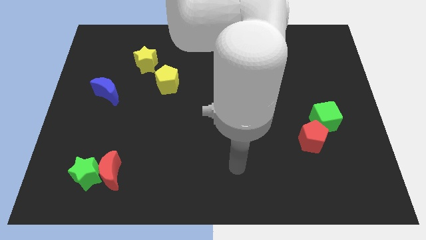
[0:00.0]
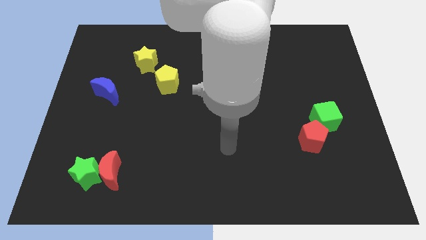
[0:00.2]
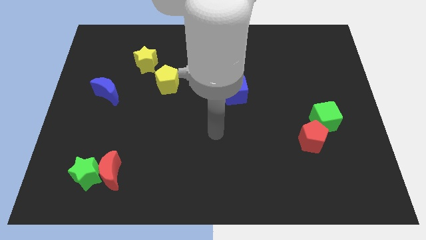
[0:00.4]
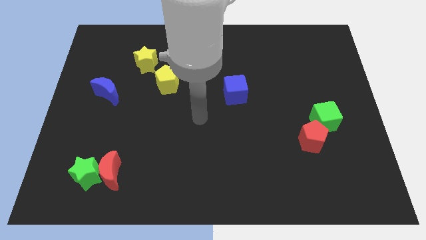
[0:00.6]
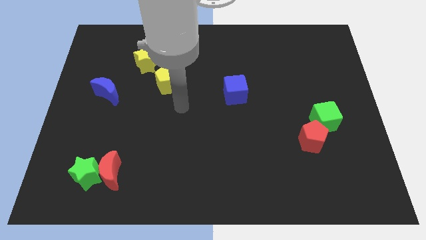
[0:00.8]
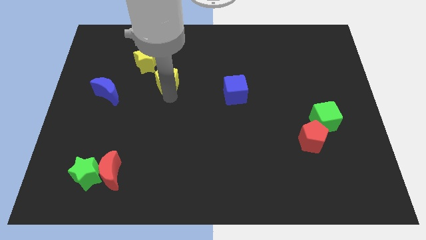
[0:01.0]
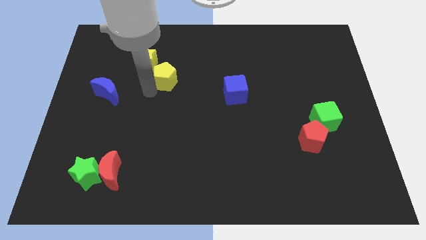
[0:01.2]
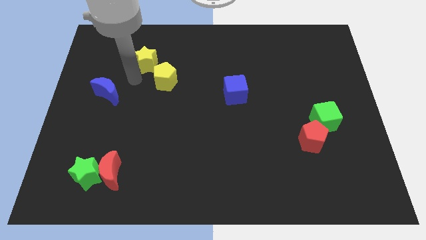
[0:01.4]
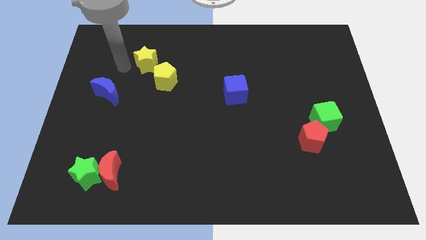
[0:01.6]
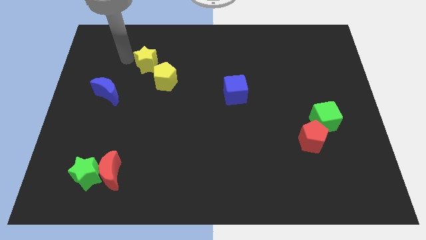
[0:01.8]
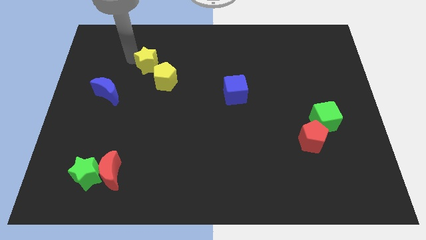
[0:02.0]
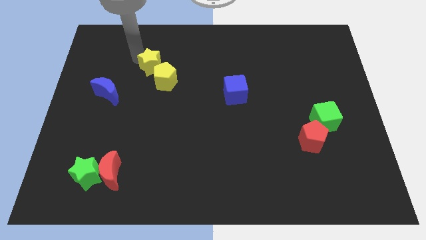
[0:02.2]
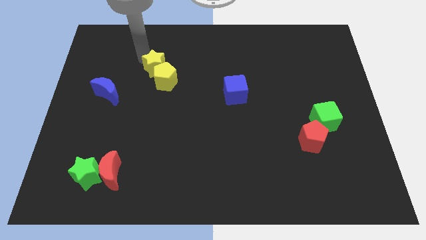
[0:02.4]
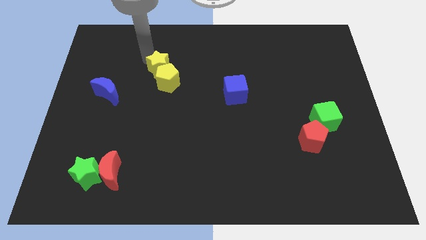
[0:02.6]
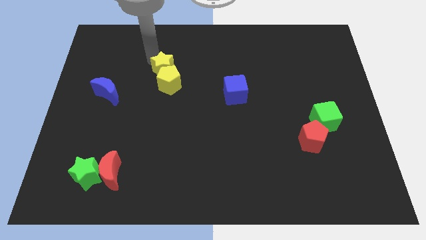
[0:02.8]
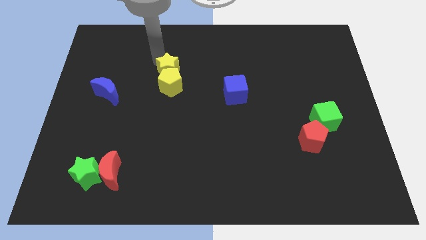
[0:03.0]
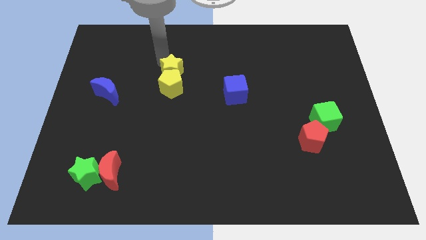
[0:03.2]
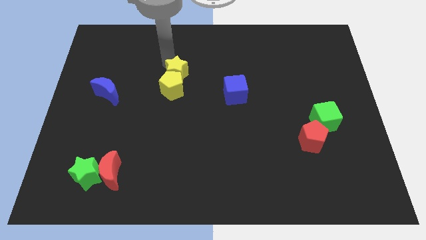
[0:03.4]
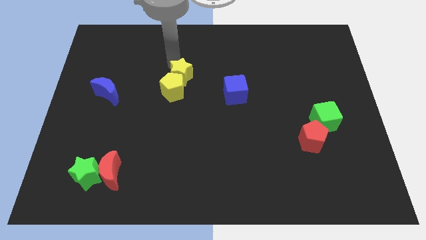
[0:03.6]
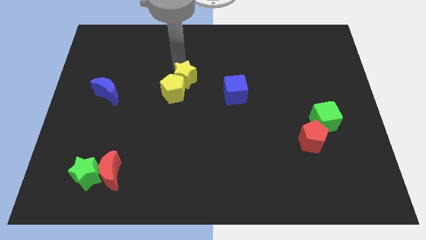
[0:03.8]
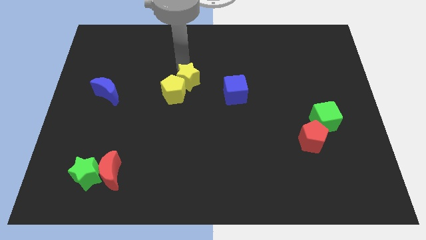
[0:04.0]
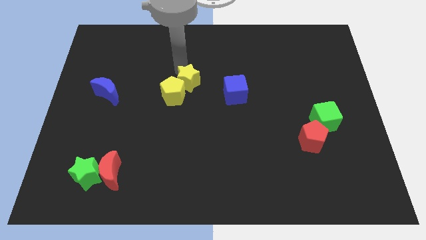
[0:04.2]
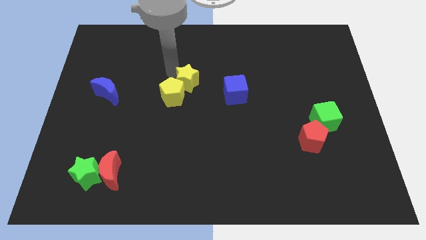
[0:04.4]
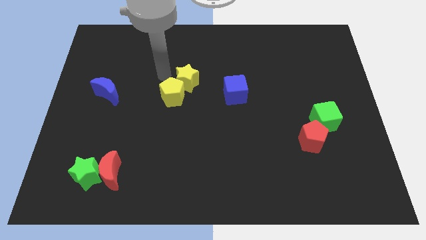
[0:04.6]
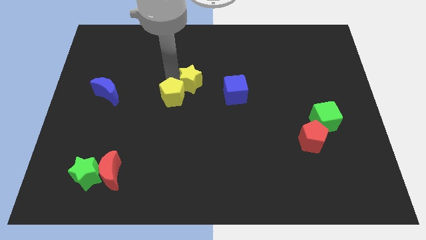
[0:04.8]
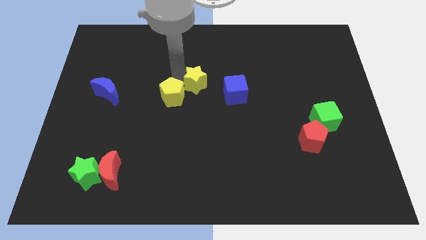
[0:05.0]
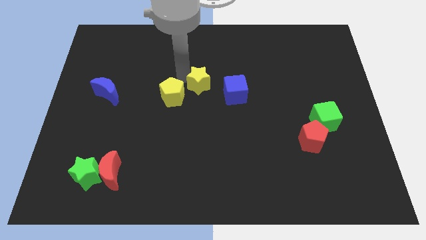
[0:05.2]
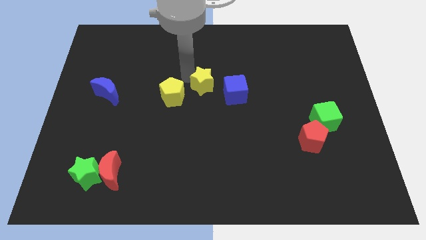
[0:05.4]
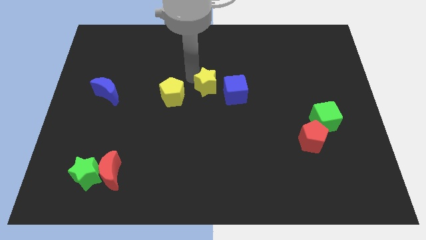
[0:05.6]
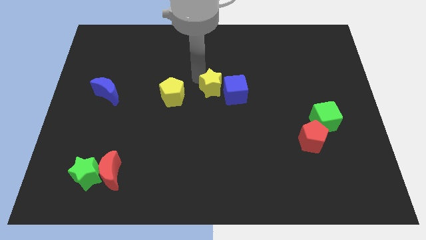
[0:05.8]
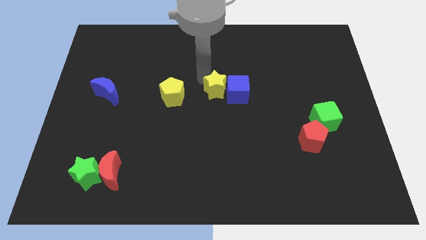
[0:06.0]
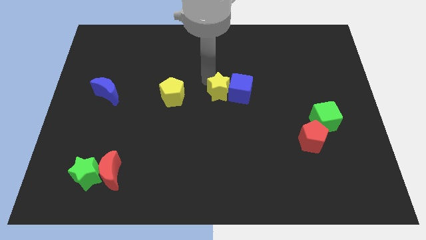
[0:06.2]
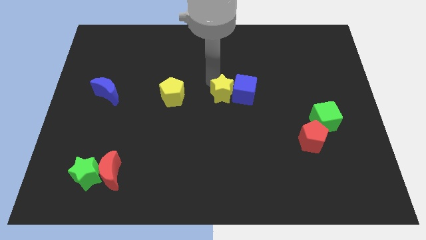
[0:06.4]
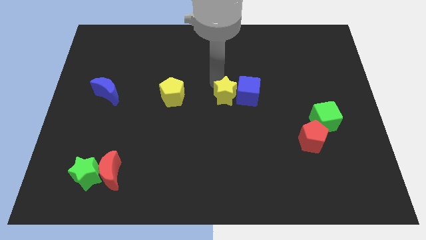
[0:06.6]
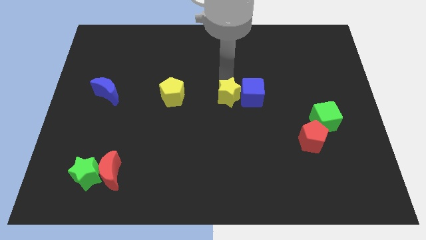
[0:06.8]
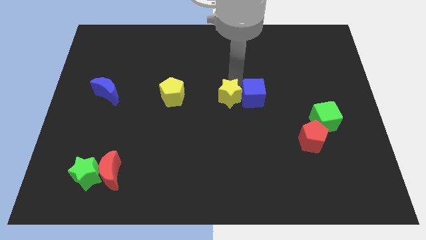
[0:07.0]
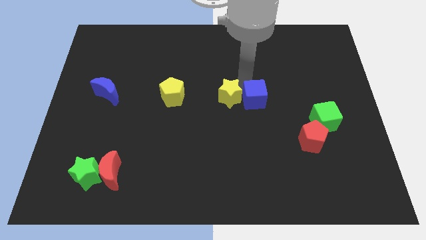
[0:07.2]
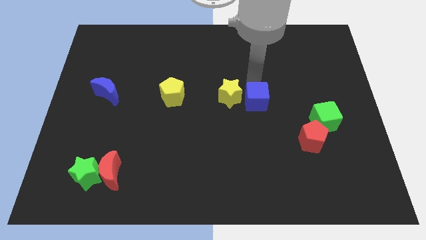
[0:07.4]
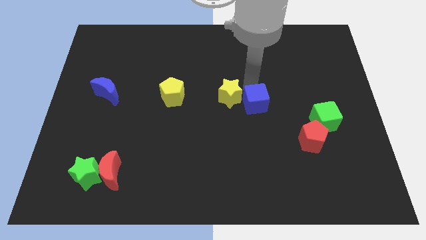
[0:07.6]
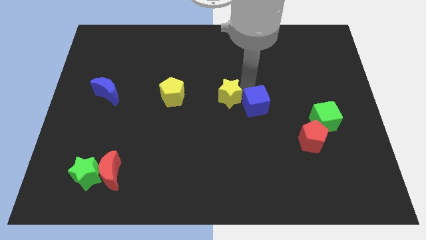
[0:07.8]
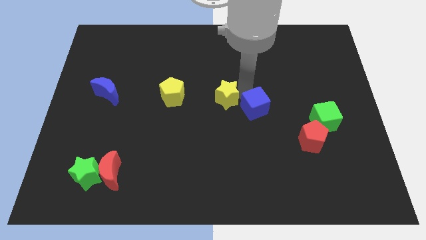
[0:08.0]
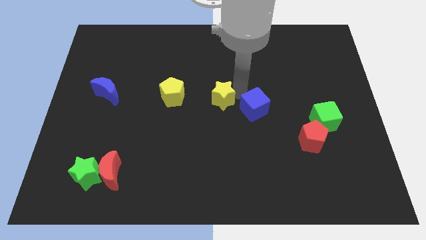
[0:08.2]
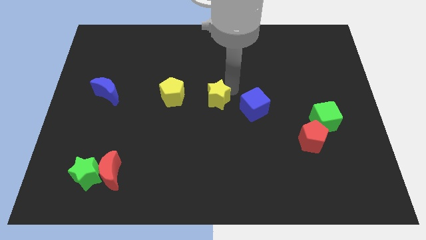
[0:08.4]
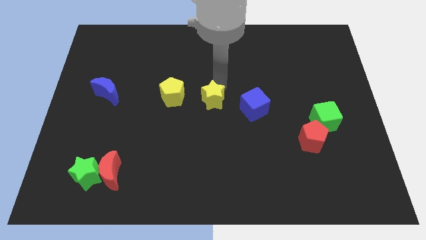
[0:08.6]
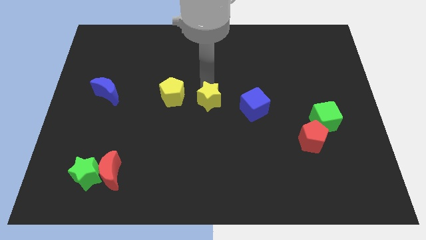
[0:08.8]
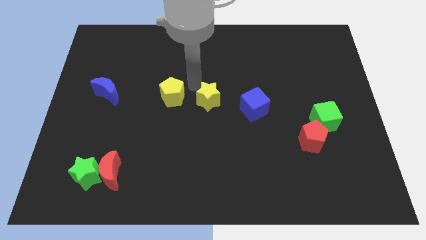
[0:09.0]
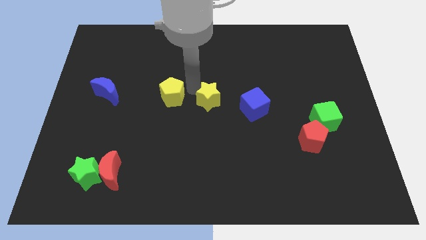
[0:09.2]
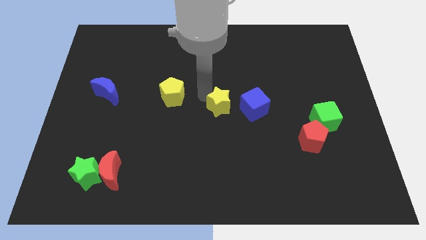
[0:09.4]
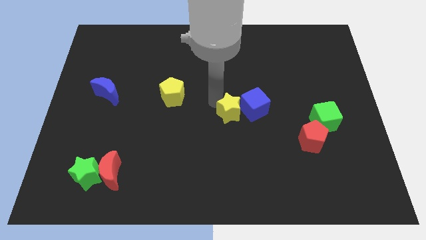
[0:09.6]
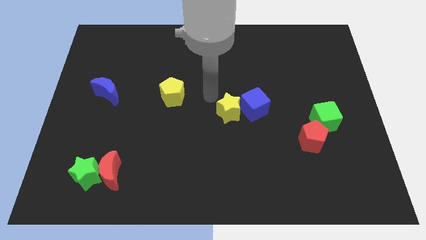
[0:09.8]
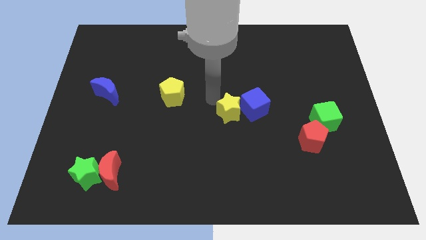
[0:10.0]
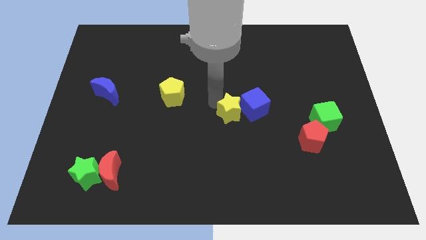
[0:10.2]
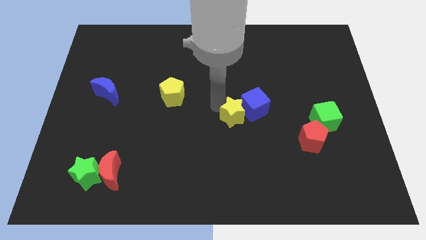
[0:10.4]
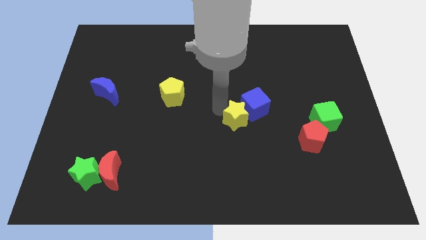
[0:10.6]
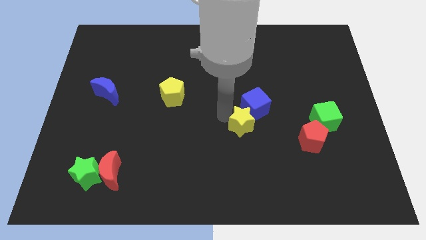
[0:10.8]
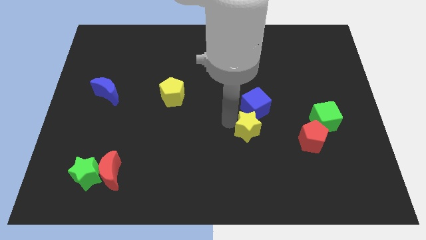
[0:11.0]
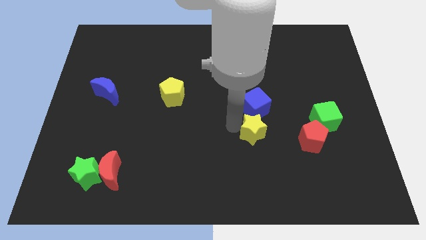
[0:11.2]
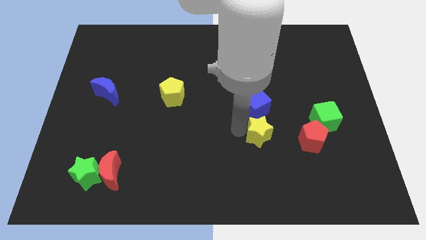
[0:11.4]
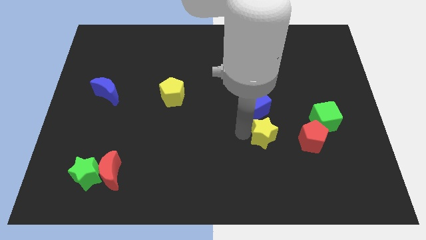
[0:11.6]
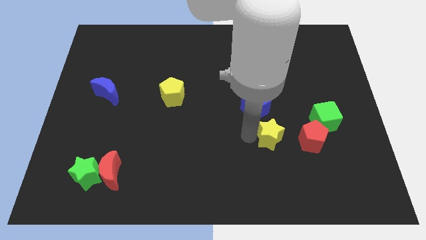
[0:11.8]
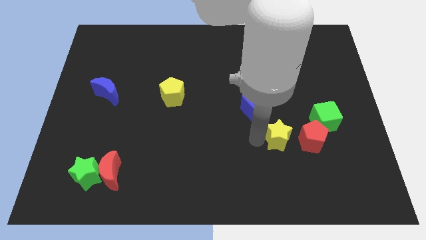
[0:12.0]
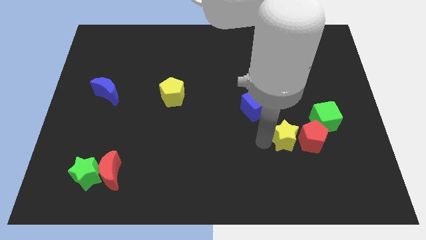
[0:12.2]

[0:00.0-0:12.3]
slide the yellow star next to the red pentagon

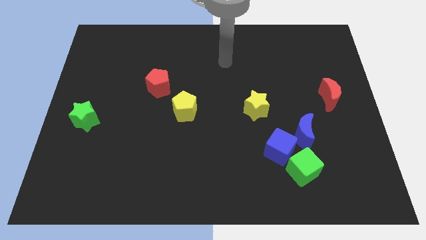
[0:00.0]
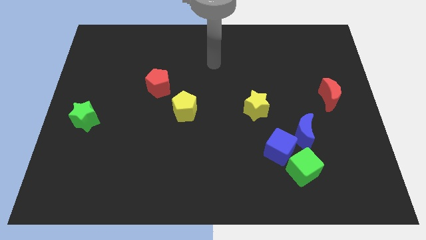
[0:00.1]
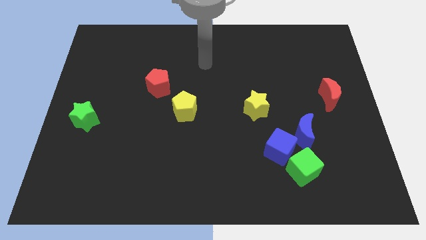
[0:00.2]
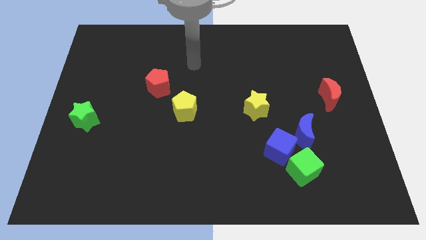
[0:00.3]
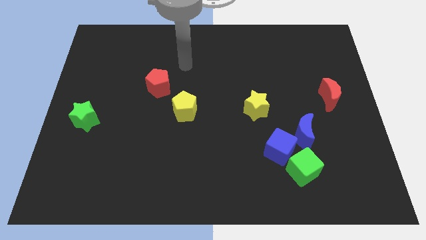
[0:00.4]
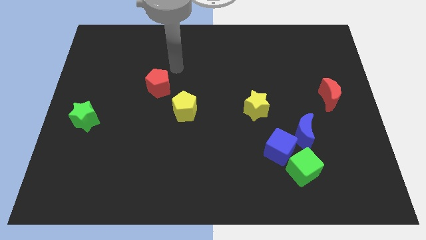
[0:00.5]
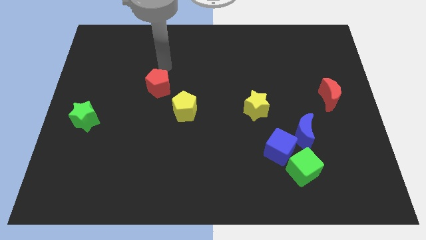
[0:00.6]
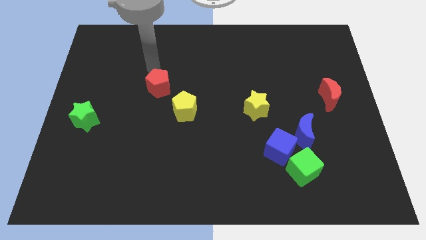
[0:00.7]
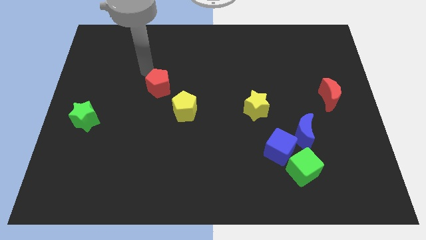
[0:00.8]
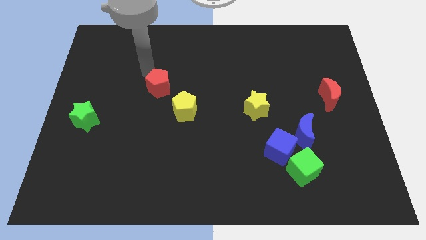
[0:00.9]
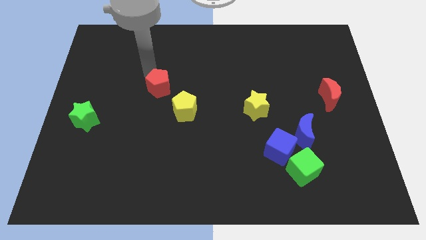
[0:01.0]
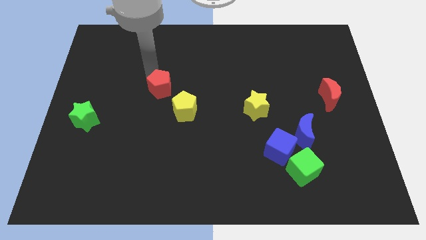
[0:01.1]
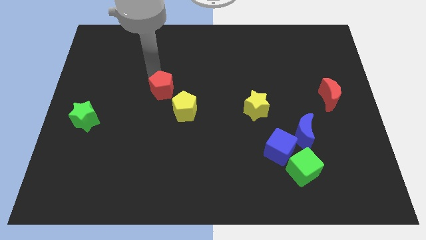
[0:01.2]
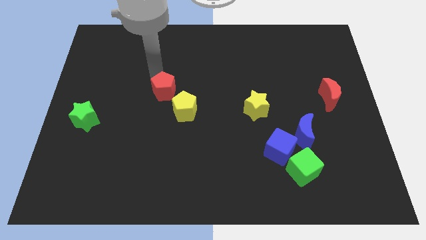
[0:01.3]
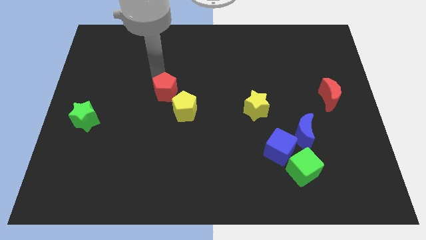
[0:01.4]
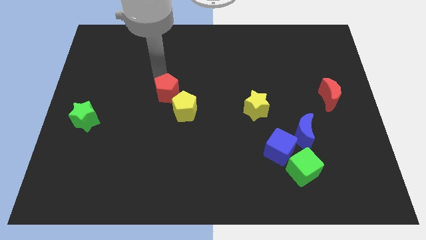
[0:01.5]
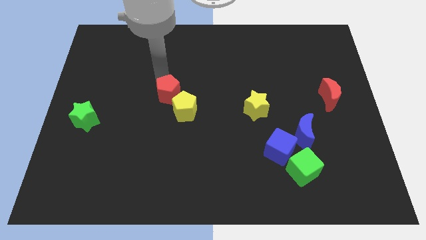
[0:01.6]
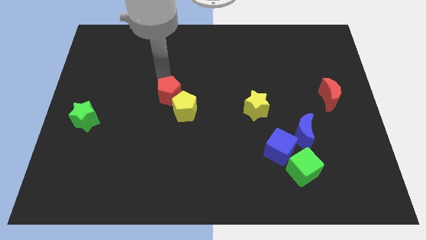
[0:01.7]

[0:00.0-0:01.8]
put the red pentagon to the yellow pentagon
